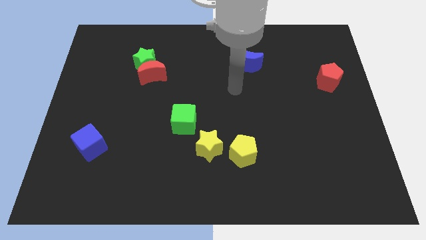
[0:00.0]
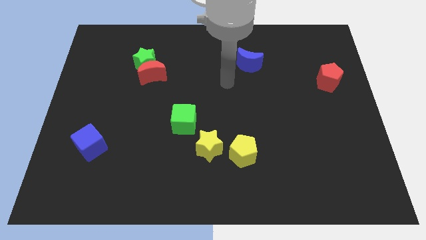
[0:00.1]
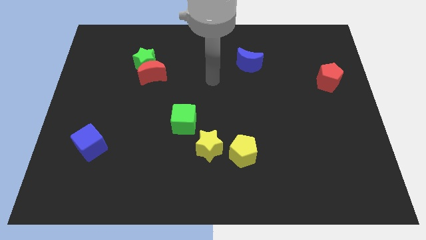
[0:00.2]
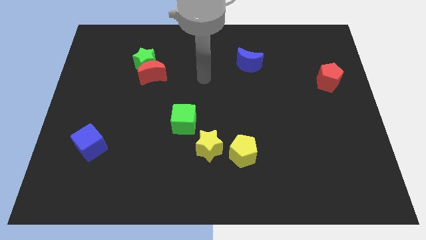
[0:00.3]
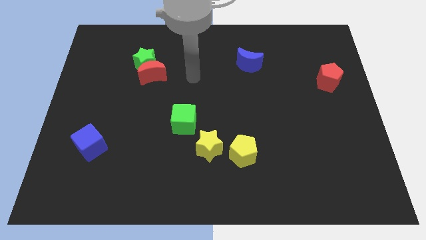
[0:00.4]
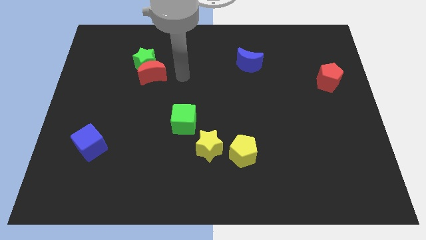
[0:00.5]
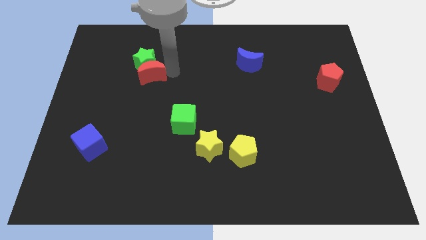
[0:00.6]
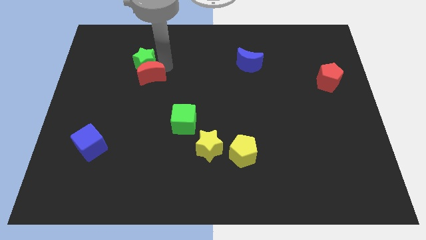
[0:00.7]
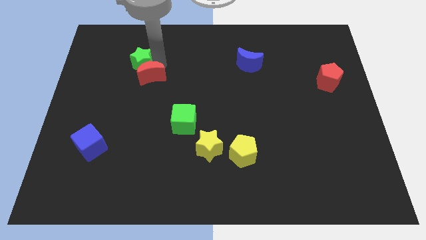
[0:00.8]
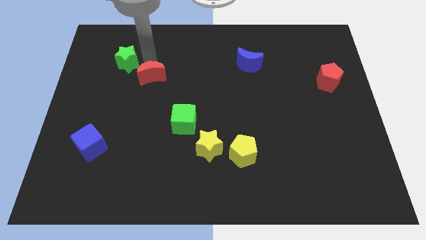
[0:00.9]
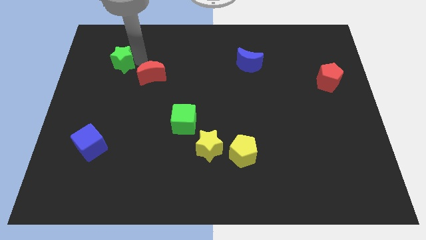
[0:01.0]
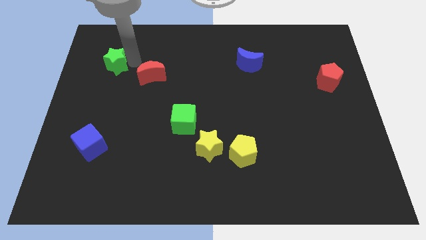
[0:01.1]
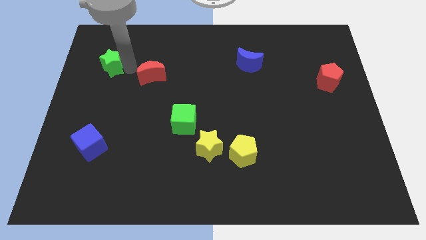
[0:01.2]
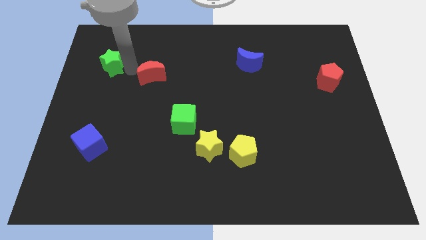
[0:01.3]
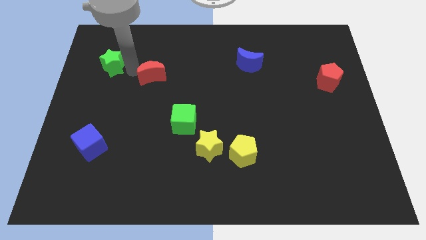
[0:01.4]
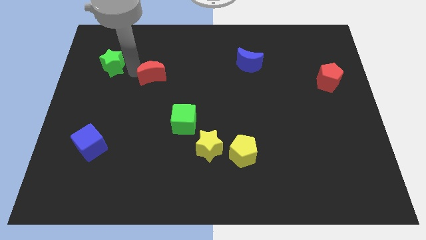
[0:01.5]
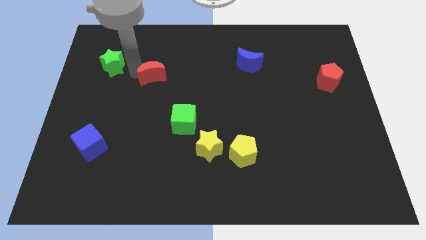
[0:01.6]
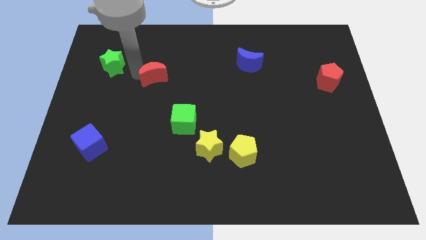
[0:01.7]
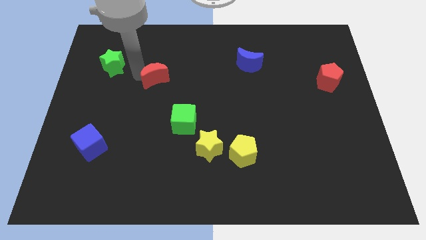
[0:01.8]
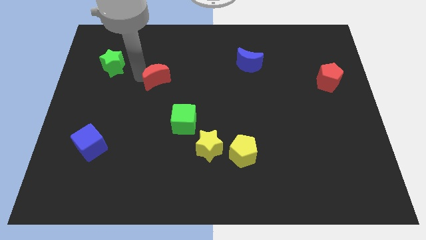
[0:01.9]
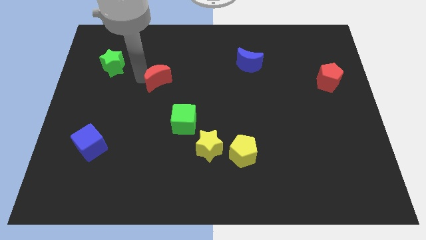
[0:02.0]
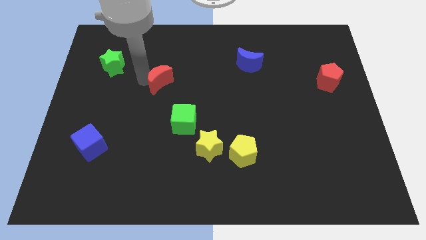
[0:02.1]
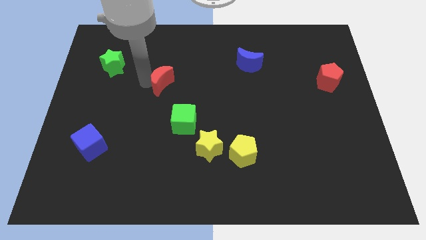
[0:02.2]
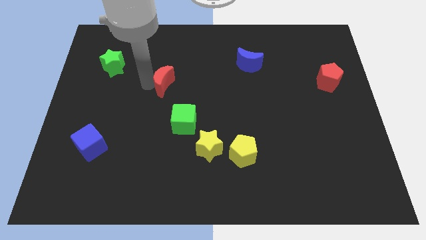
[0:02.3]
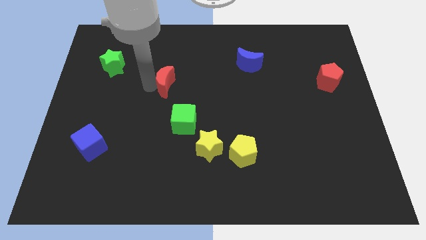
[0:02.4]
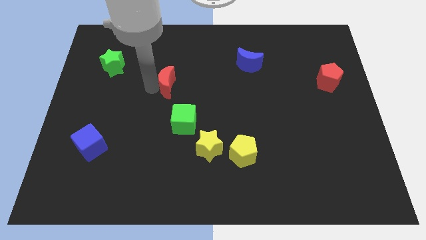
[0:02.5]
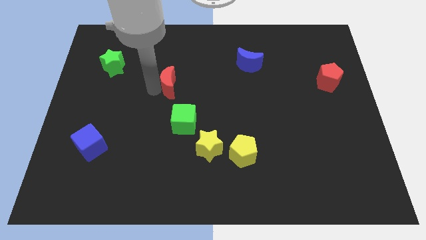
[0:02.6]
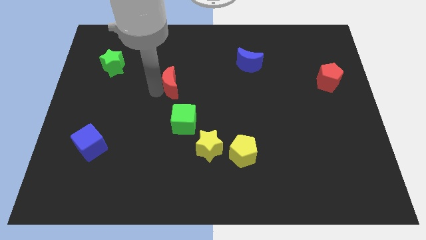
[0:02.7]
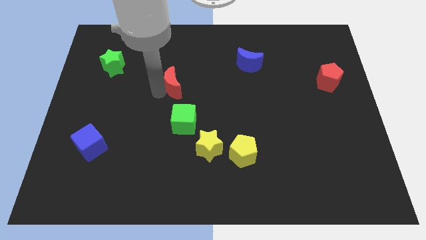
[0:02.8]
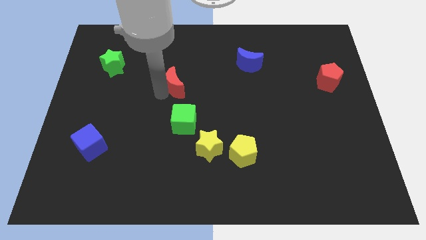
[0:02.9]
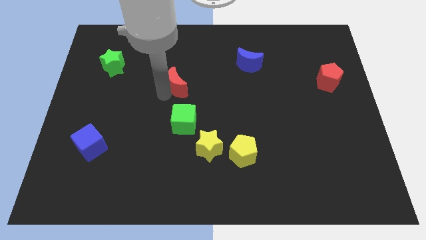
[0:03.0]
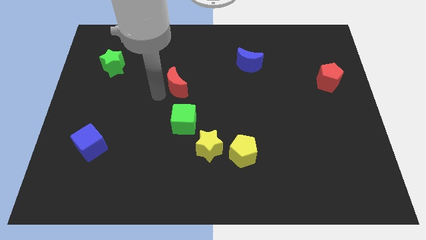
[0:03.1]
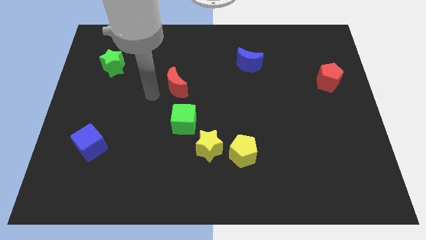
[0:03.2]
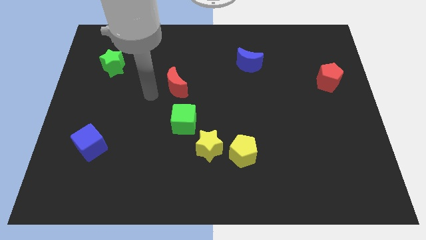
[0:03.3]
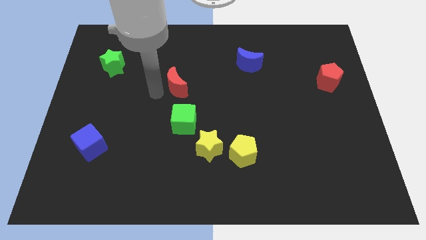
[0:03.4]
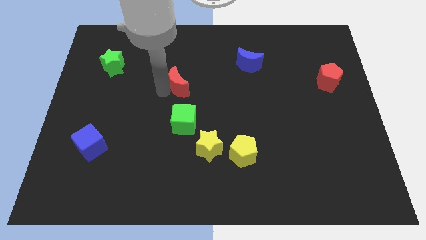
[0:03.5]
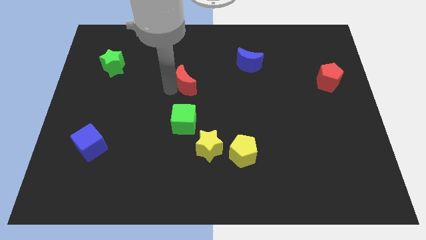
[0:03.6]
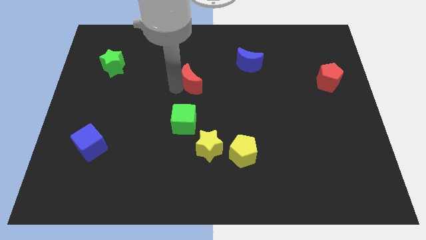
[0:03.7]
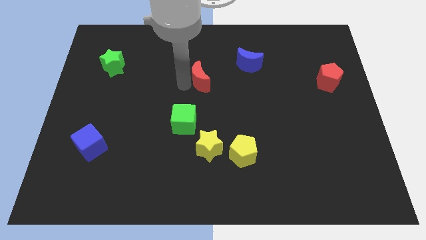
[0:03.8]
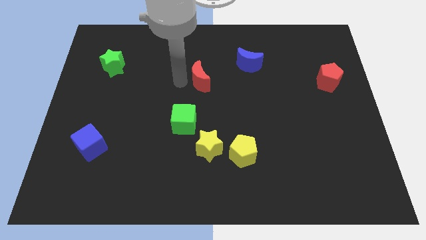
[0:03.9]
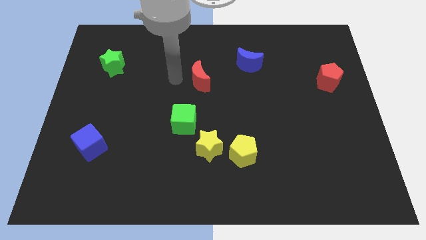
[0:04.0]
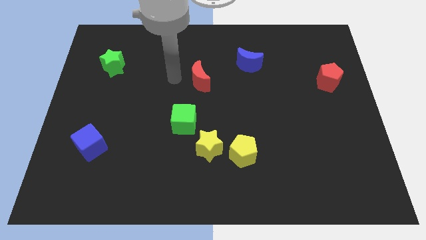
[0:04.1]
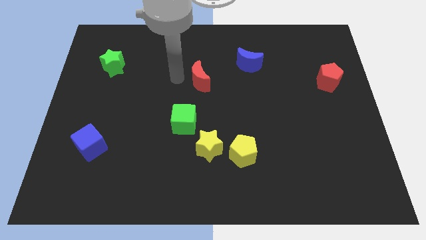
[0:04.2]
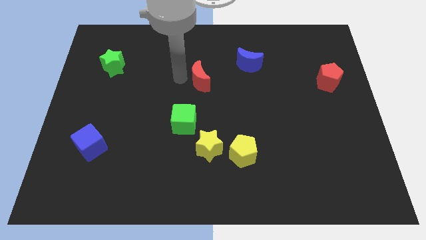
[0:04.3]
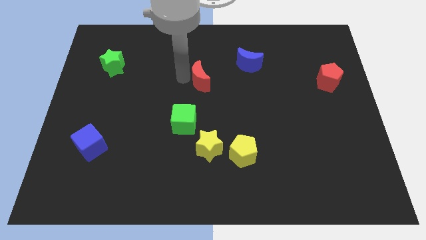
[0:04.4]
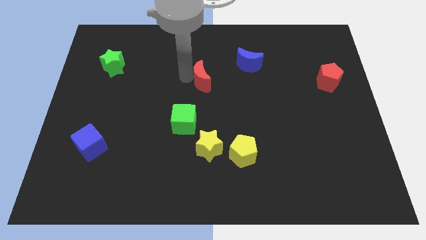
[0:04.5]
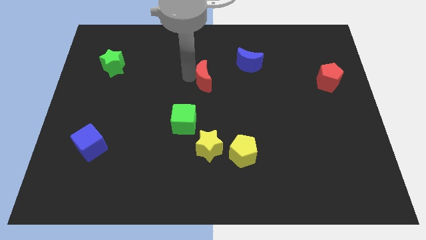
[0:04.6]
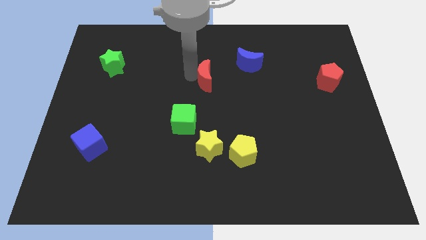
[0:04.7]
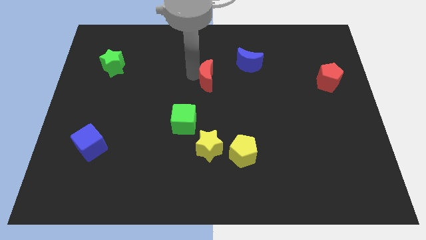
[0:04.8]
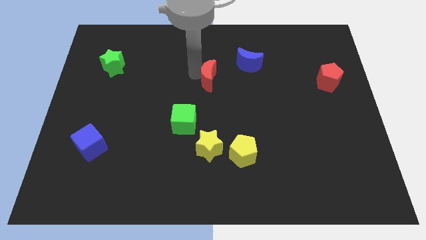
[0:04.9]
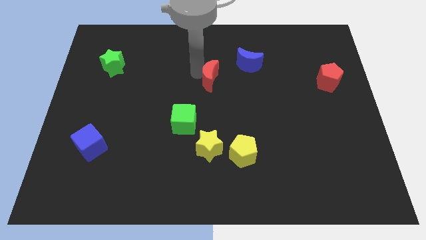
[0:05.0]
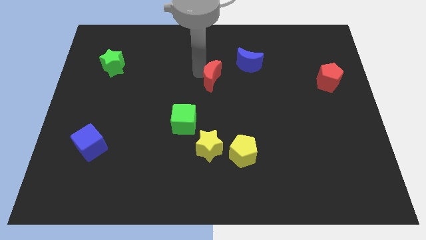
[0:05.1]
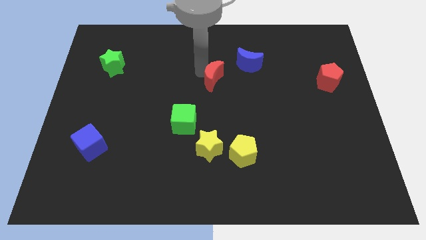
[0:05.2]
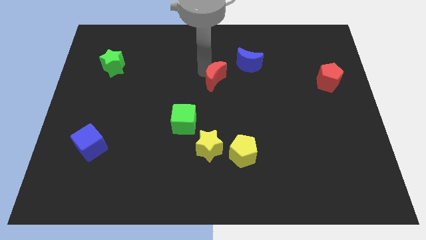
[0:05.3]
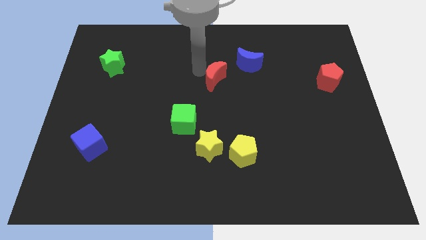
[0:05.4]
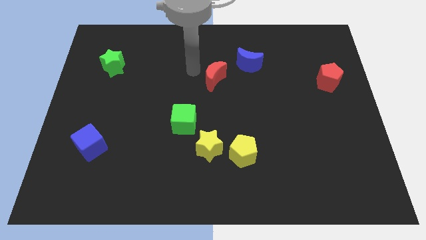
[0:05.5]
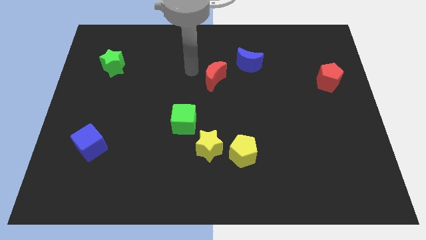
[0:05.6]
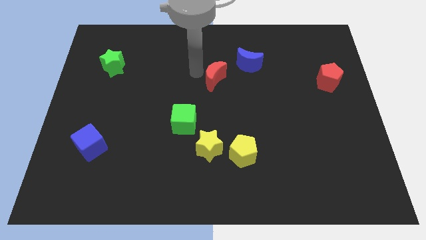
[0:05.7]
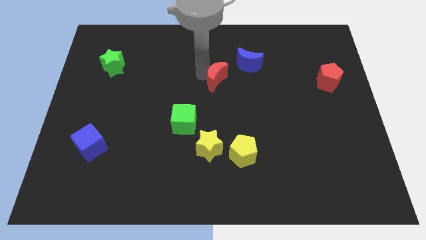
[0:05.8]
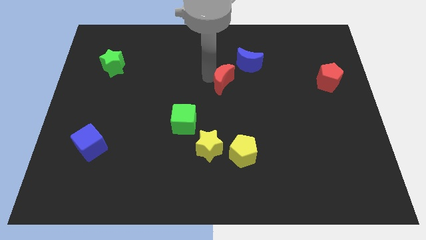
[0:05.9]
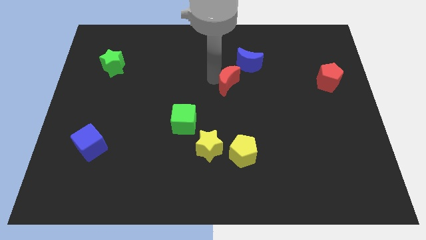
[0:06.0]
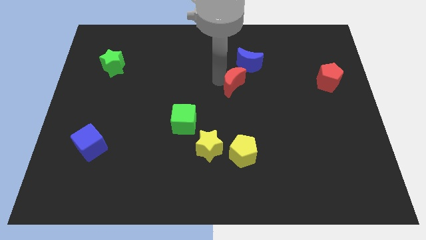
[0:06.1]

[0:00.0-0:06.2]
push the red moon right

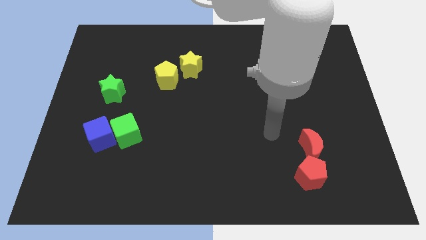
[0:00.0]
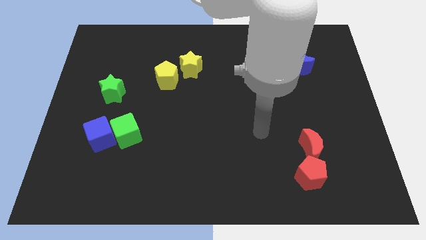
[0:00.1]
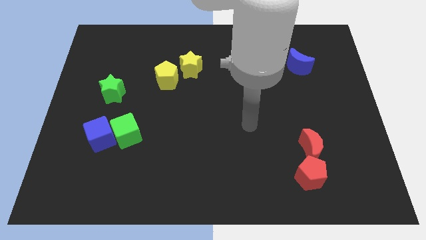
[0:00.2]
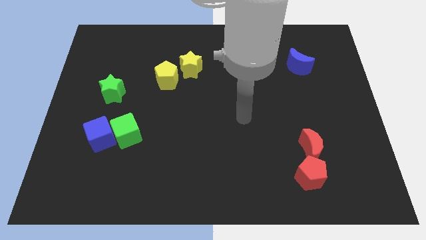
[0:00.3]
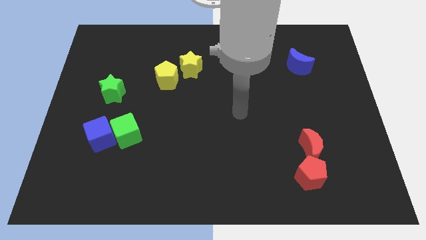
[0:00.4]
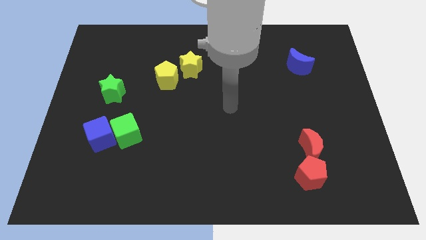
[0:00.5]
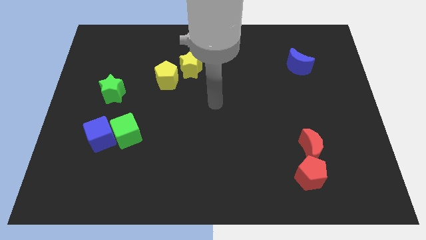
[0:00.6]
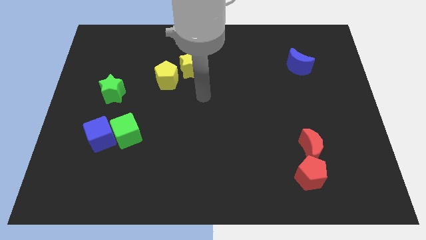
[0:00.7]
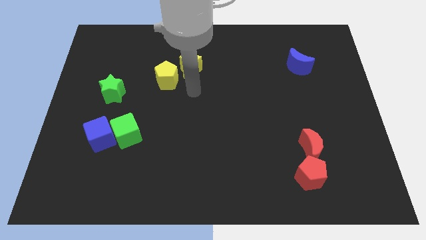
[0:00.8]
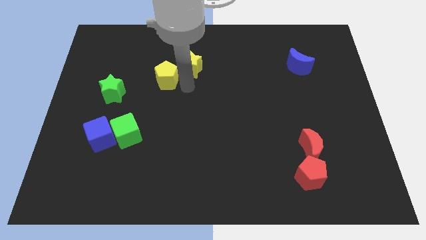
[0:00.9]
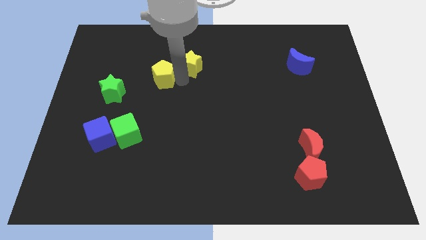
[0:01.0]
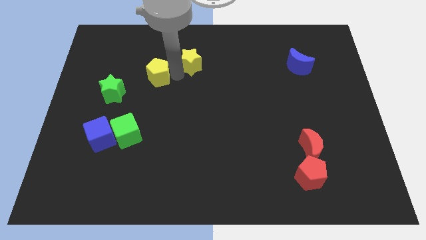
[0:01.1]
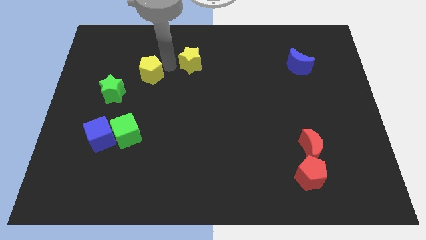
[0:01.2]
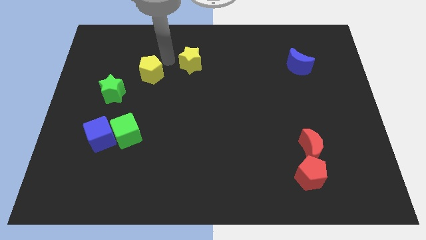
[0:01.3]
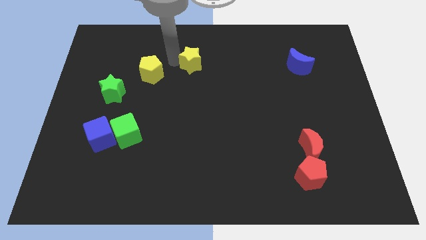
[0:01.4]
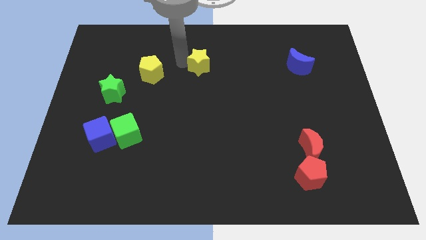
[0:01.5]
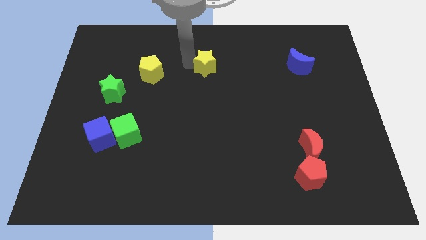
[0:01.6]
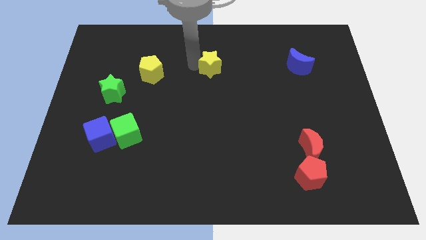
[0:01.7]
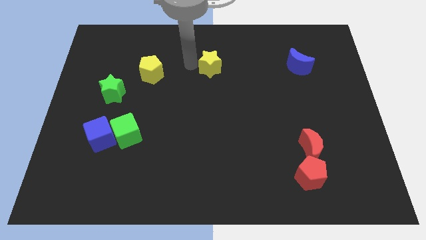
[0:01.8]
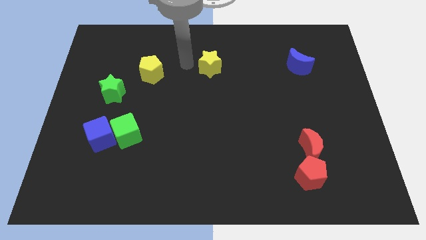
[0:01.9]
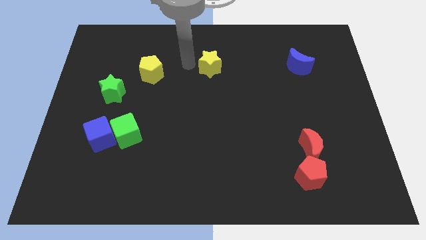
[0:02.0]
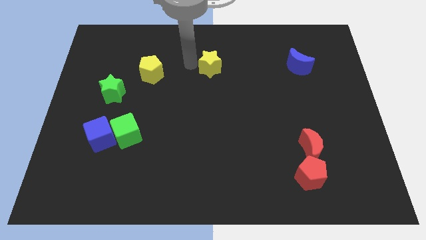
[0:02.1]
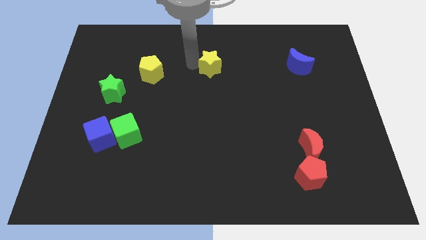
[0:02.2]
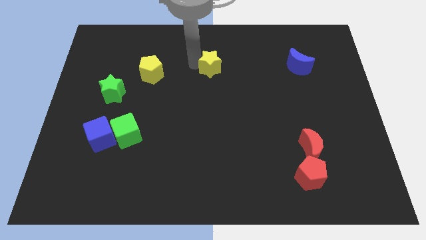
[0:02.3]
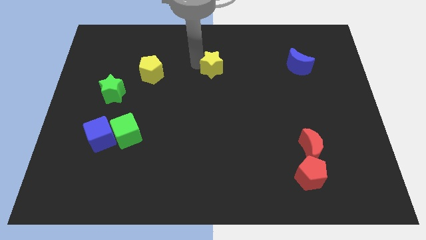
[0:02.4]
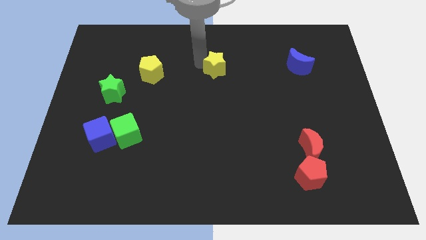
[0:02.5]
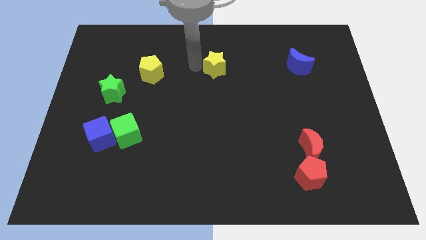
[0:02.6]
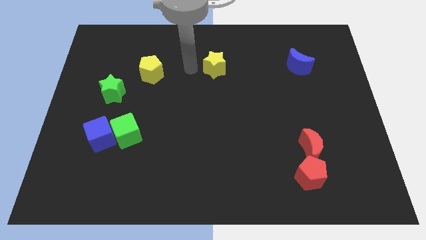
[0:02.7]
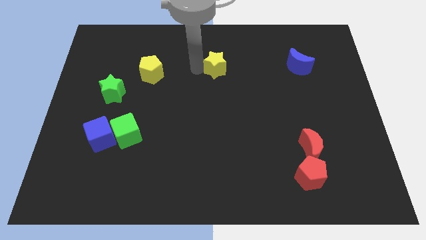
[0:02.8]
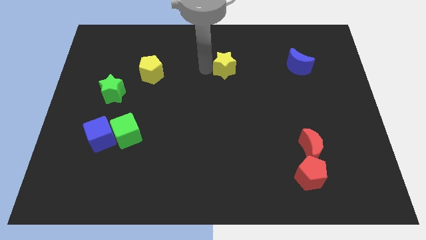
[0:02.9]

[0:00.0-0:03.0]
slide the yellow star to the right somewhat
